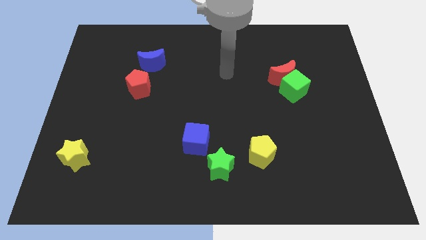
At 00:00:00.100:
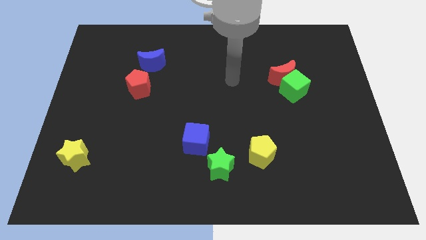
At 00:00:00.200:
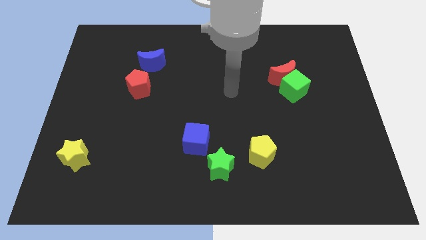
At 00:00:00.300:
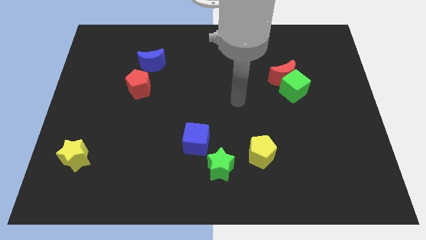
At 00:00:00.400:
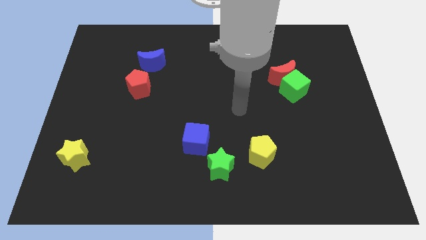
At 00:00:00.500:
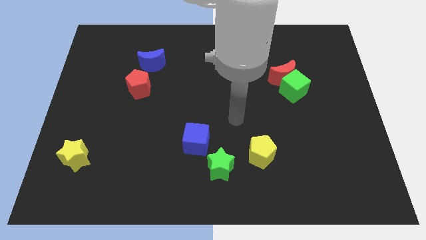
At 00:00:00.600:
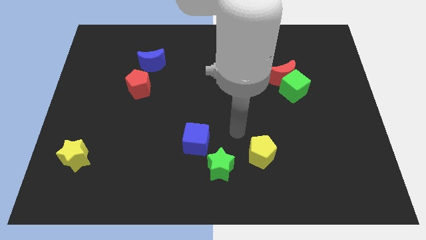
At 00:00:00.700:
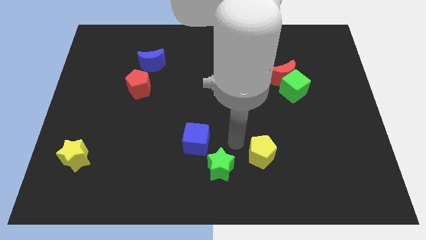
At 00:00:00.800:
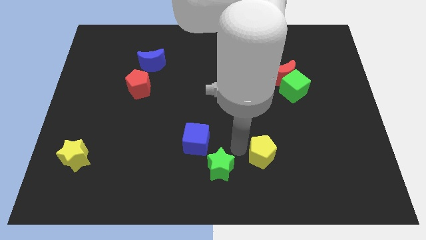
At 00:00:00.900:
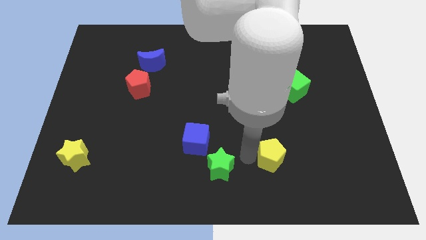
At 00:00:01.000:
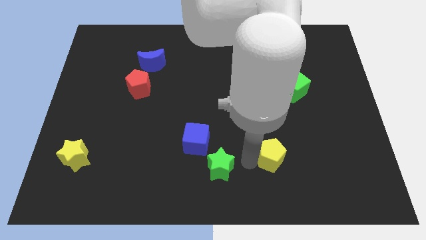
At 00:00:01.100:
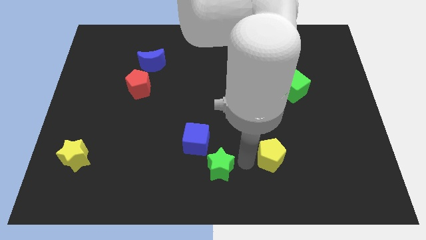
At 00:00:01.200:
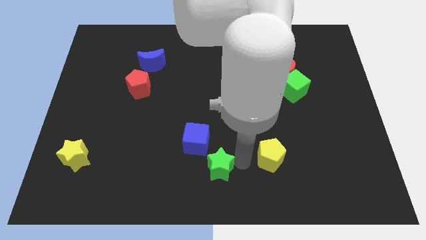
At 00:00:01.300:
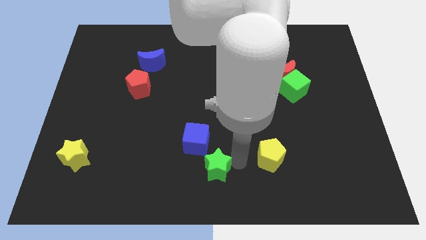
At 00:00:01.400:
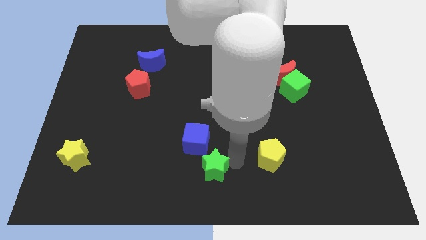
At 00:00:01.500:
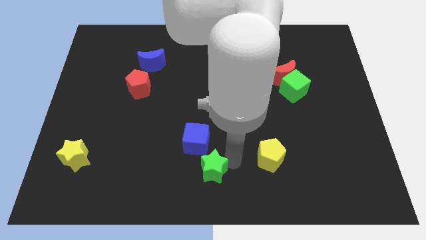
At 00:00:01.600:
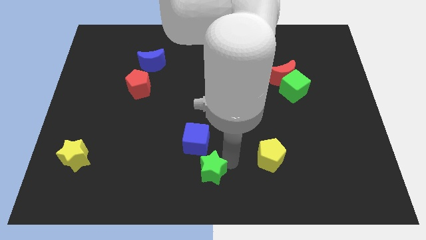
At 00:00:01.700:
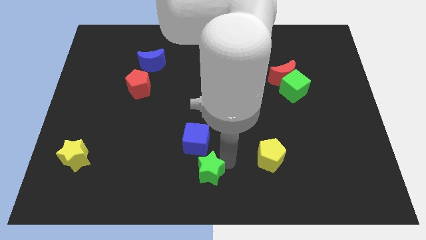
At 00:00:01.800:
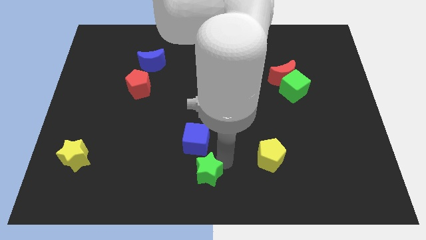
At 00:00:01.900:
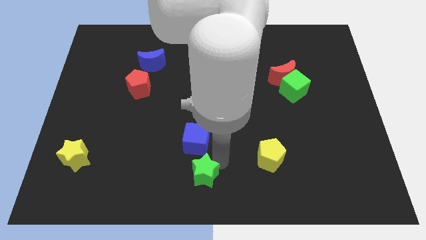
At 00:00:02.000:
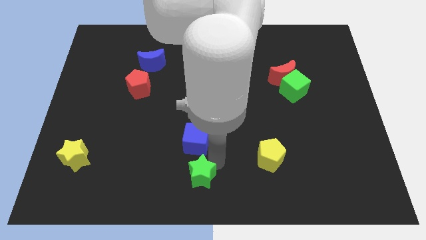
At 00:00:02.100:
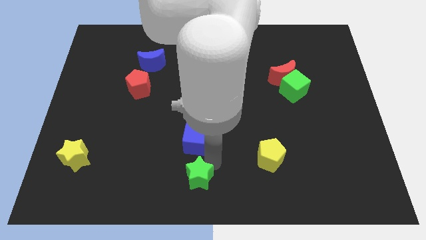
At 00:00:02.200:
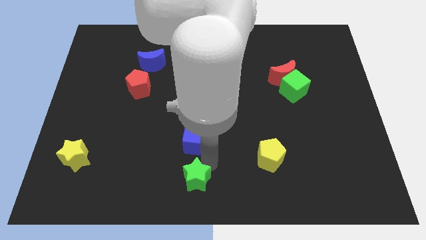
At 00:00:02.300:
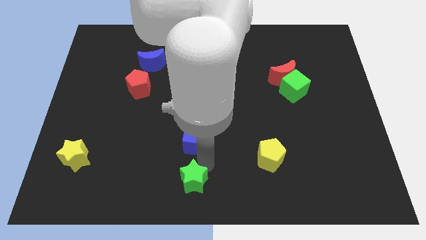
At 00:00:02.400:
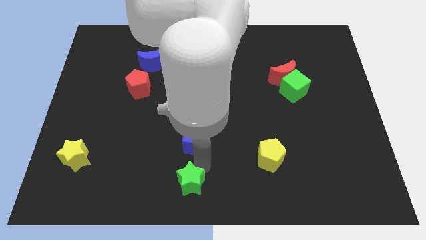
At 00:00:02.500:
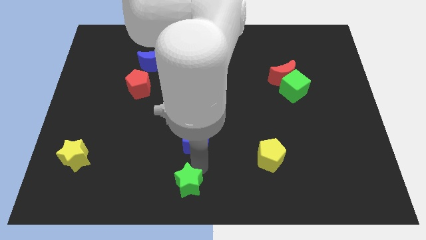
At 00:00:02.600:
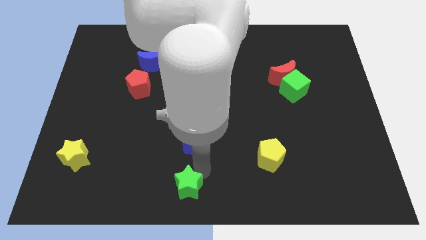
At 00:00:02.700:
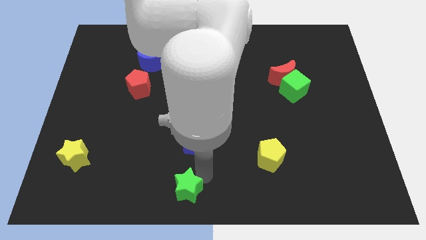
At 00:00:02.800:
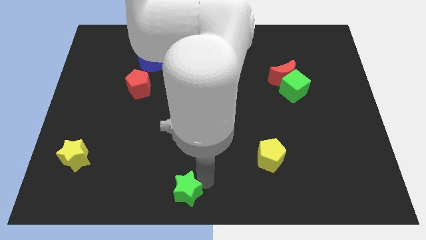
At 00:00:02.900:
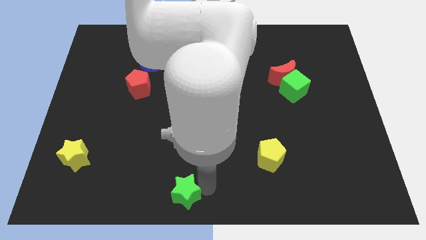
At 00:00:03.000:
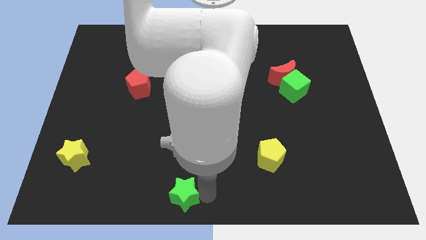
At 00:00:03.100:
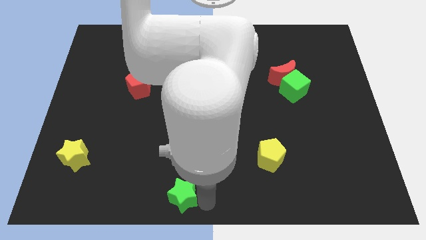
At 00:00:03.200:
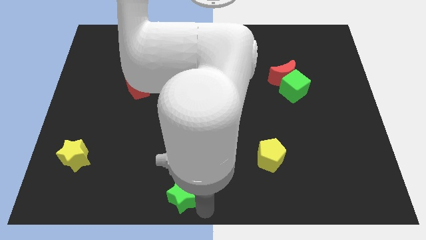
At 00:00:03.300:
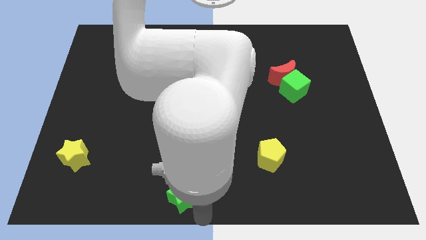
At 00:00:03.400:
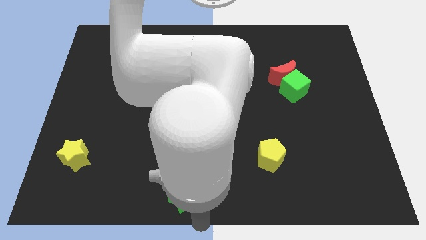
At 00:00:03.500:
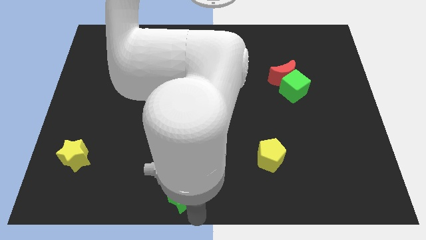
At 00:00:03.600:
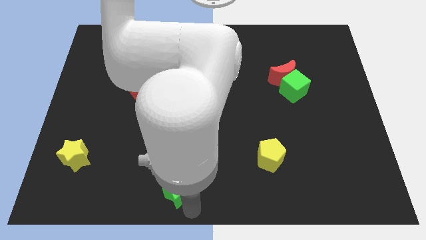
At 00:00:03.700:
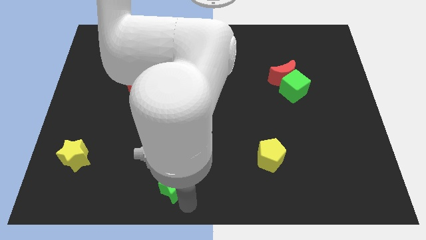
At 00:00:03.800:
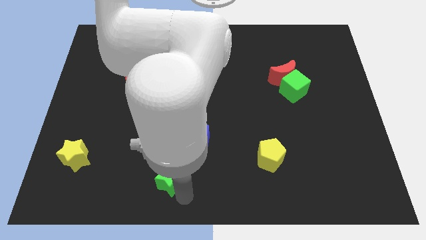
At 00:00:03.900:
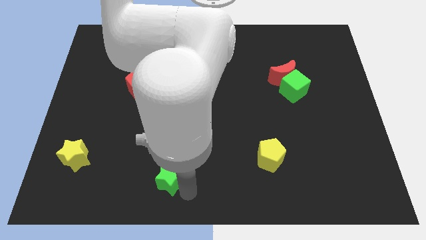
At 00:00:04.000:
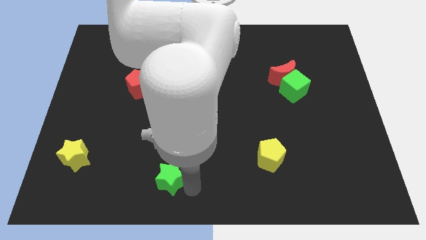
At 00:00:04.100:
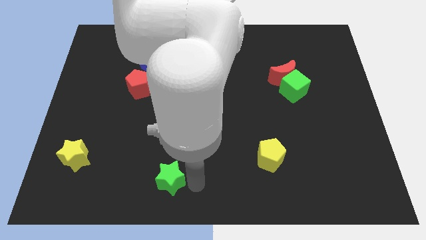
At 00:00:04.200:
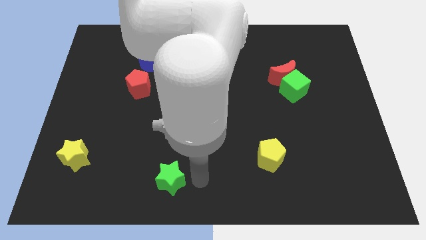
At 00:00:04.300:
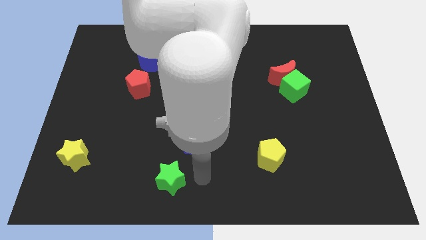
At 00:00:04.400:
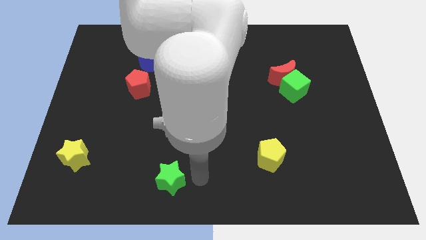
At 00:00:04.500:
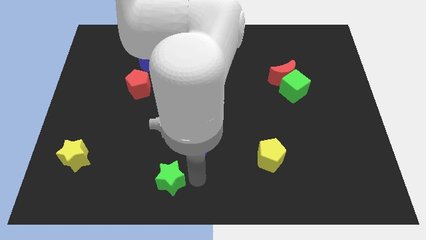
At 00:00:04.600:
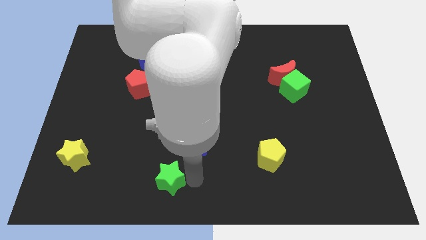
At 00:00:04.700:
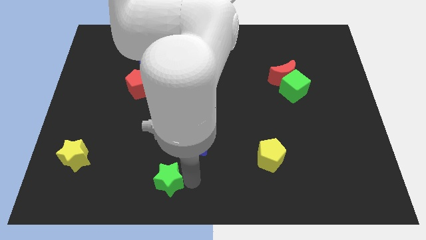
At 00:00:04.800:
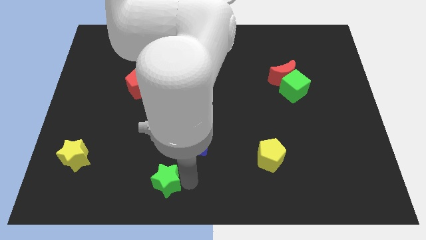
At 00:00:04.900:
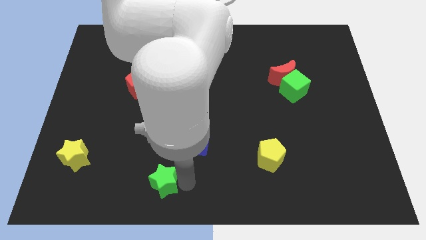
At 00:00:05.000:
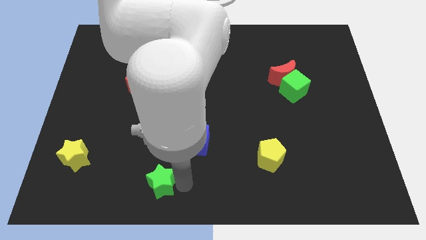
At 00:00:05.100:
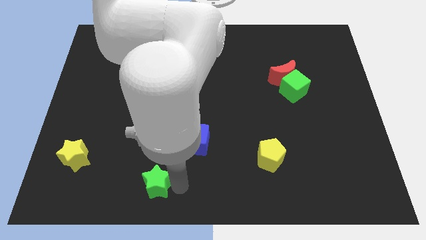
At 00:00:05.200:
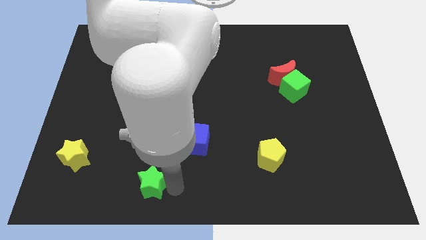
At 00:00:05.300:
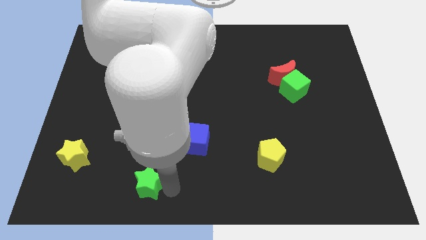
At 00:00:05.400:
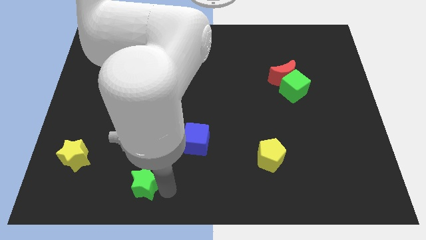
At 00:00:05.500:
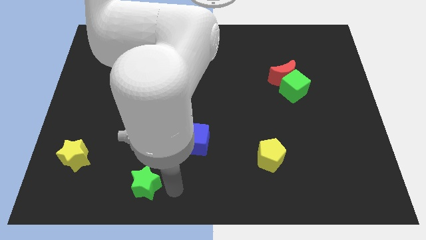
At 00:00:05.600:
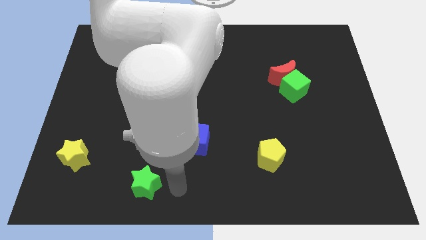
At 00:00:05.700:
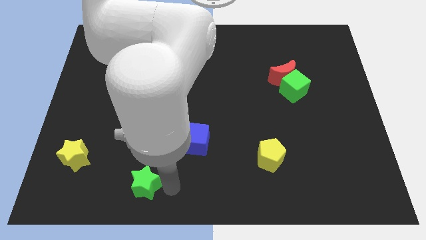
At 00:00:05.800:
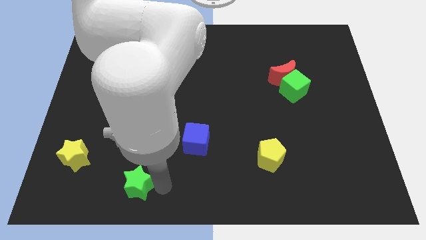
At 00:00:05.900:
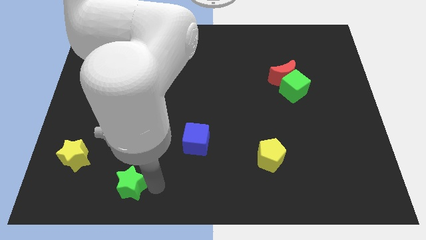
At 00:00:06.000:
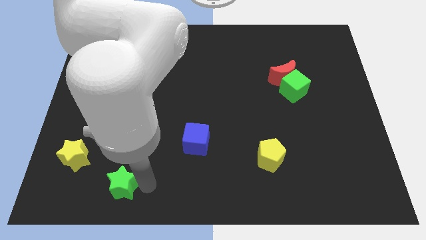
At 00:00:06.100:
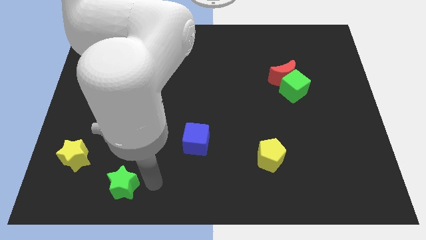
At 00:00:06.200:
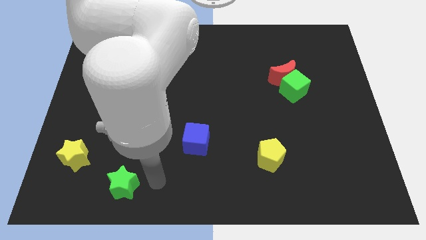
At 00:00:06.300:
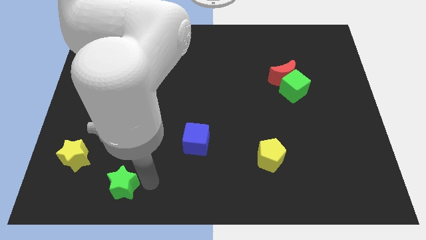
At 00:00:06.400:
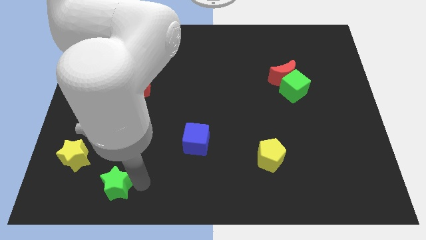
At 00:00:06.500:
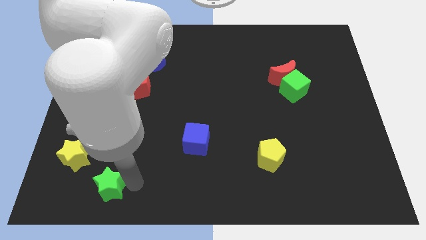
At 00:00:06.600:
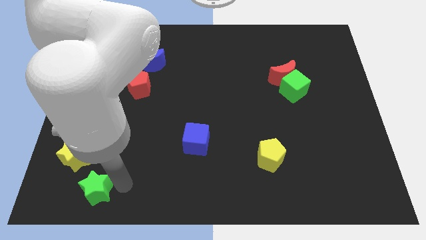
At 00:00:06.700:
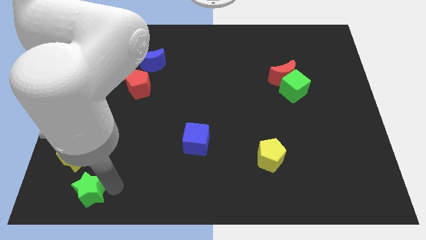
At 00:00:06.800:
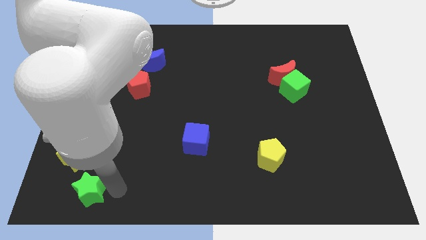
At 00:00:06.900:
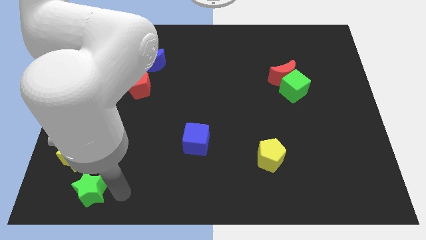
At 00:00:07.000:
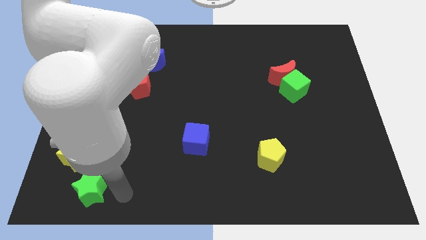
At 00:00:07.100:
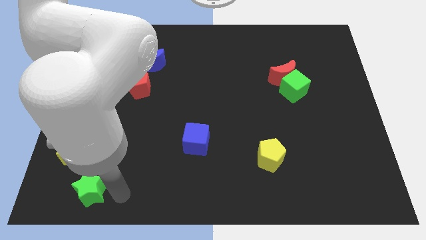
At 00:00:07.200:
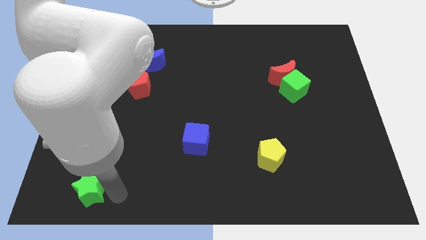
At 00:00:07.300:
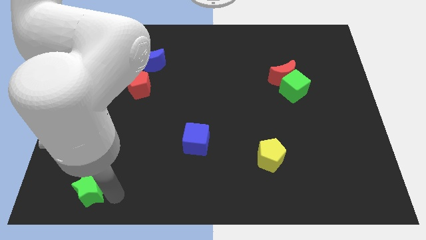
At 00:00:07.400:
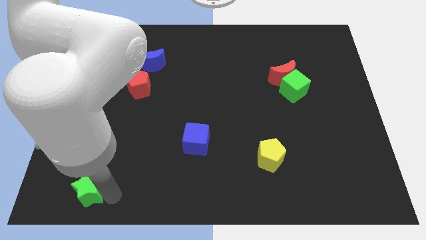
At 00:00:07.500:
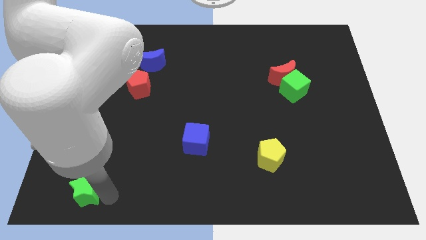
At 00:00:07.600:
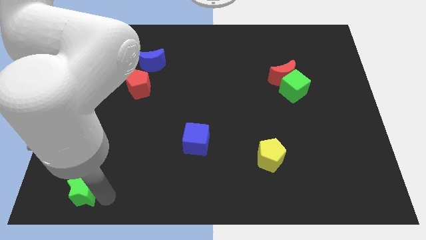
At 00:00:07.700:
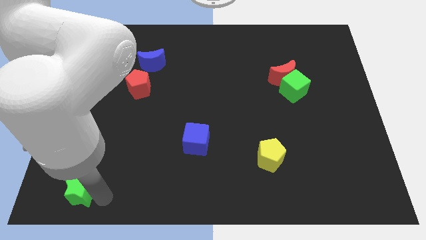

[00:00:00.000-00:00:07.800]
put the green star to the bottom left
